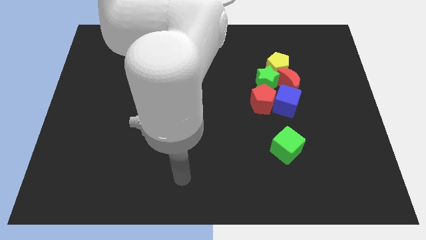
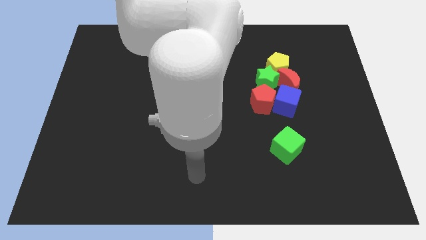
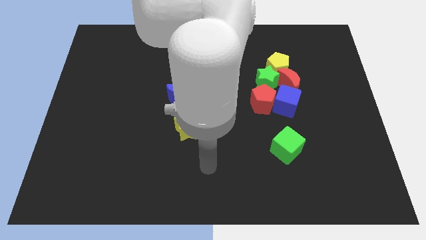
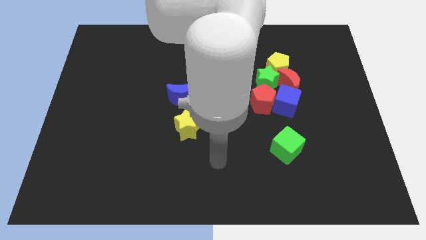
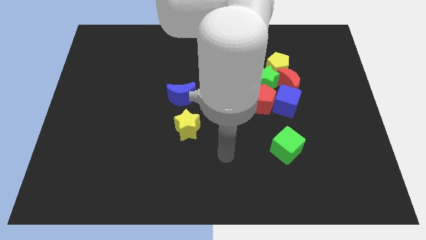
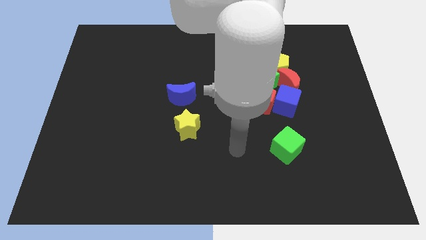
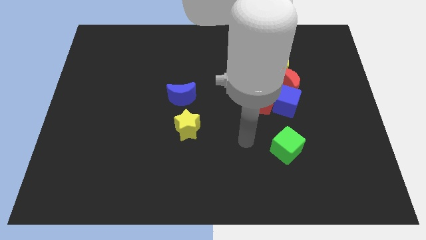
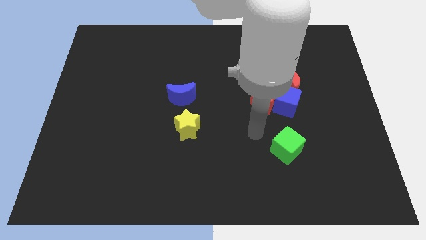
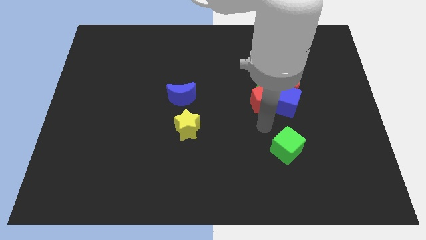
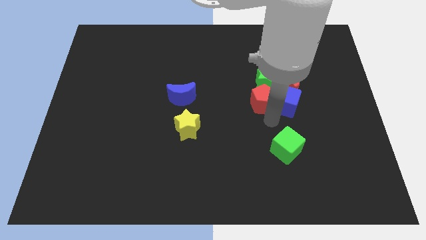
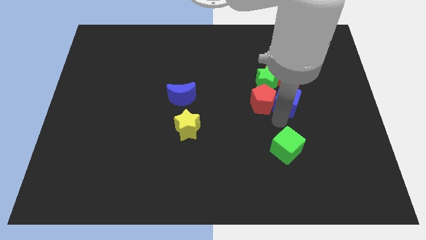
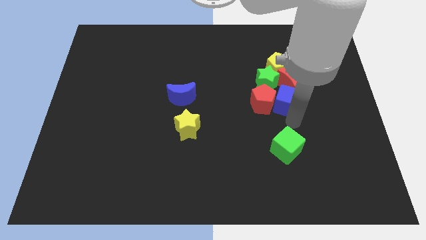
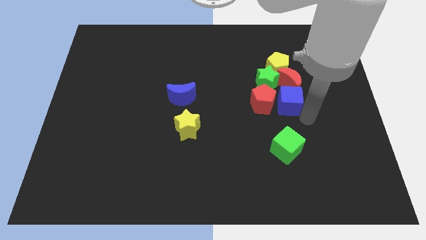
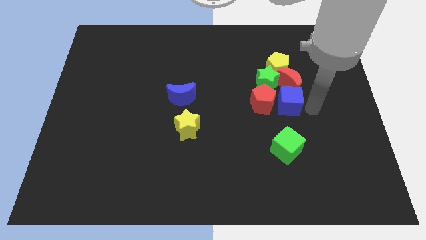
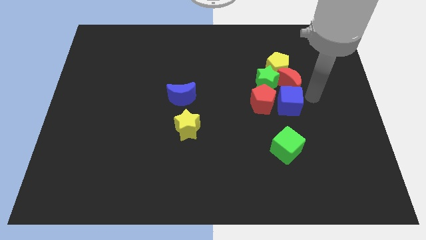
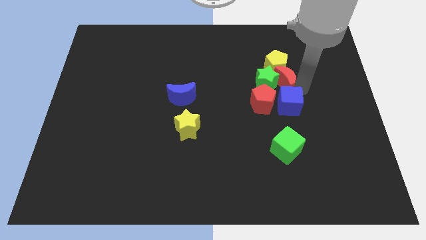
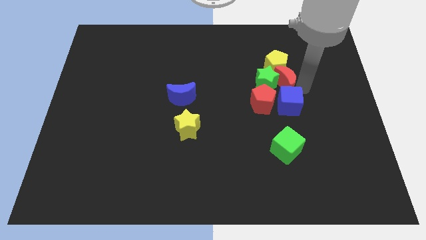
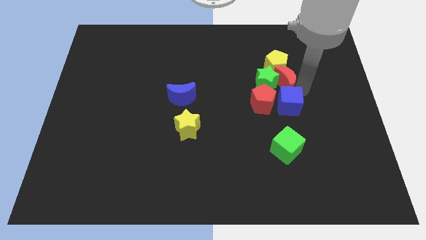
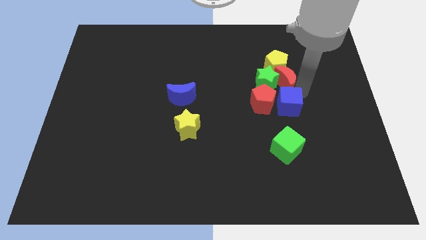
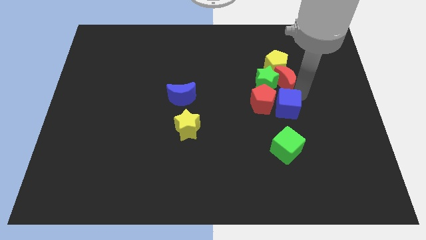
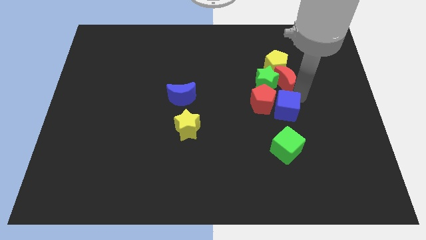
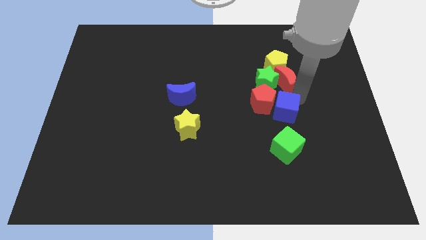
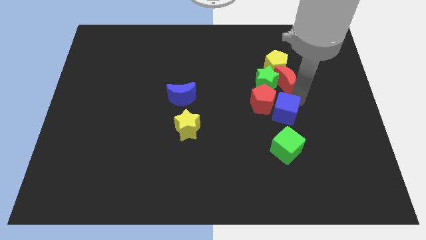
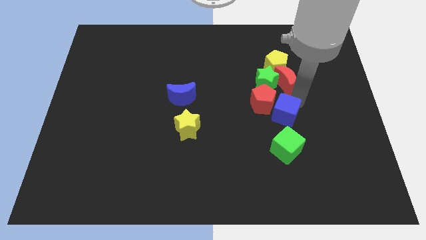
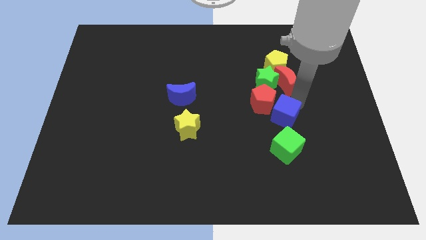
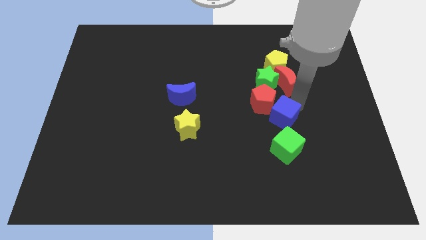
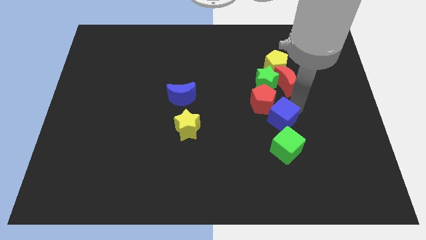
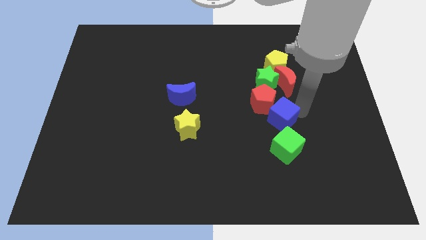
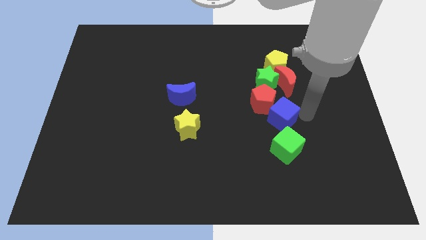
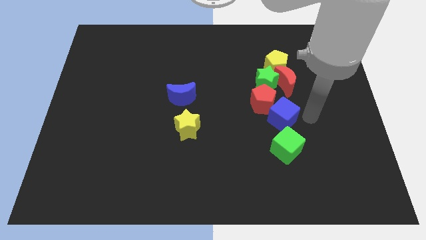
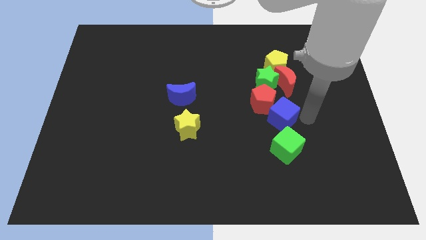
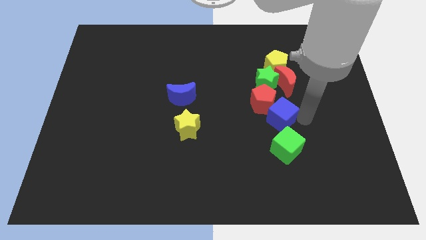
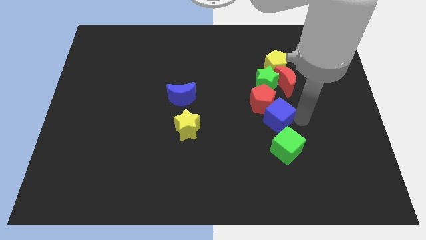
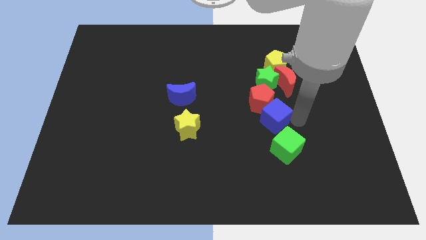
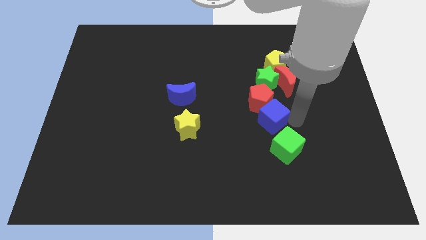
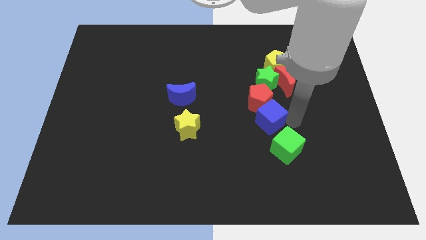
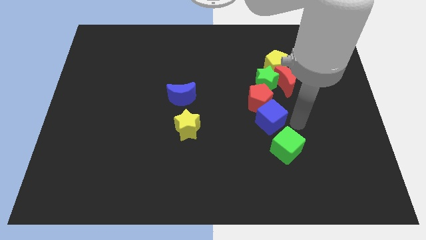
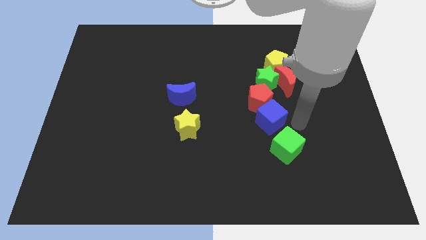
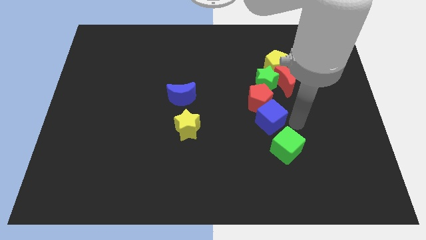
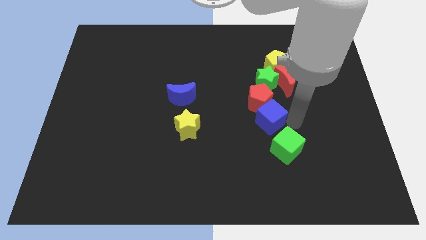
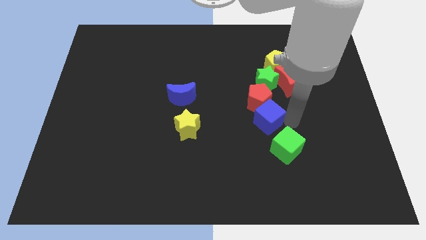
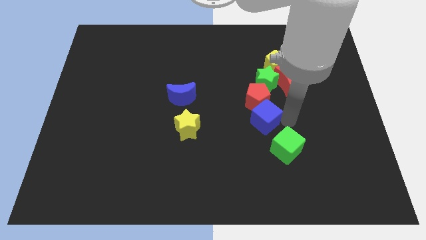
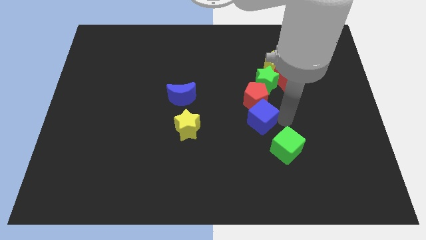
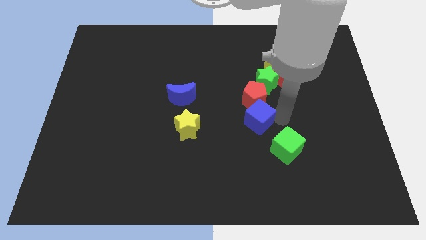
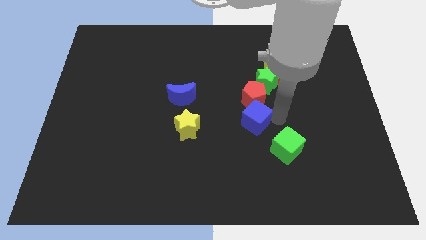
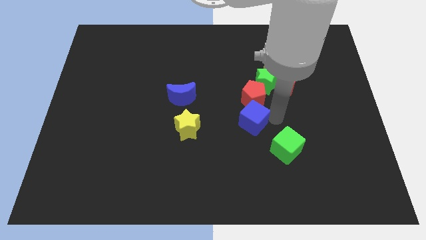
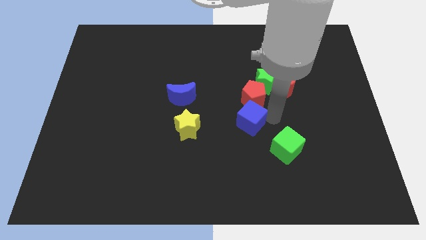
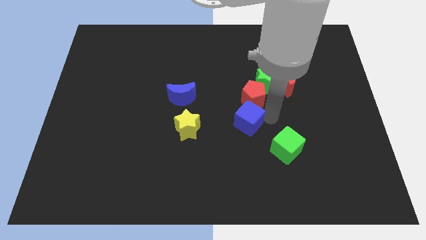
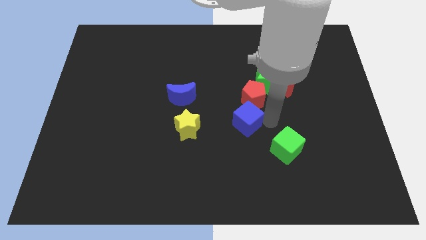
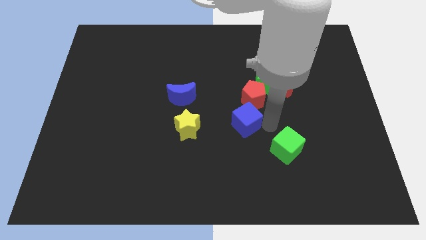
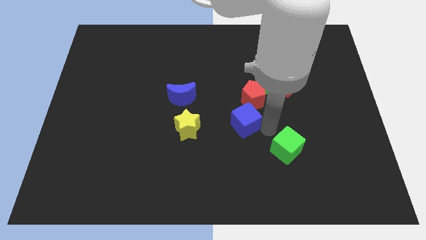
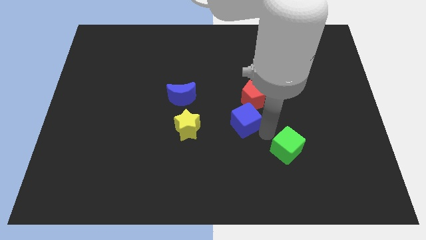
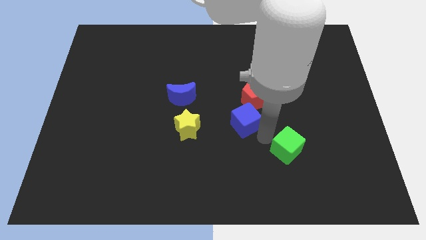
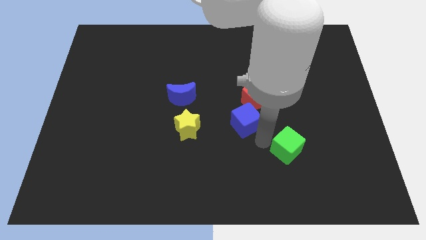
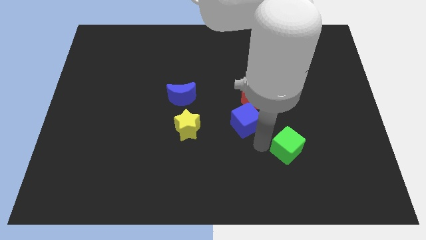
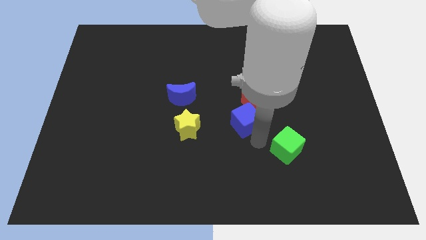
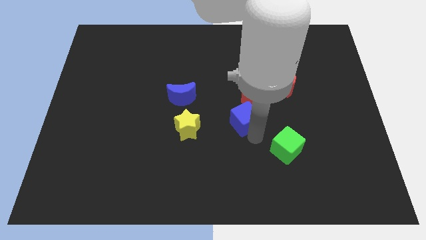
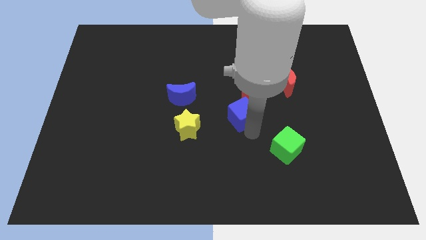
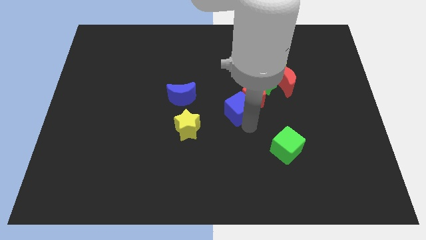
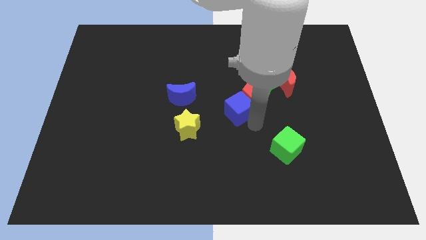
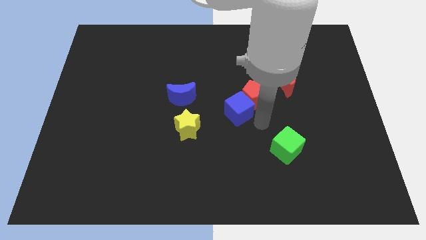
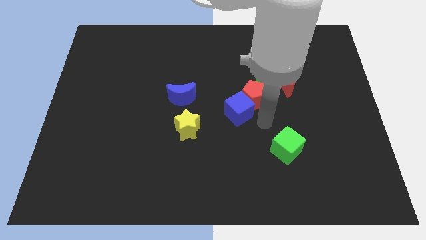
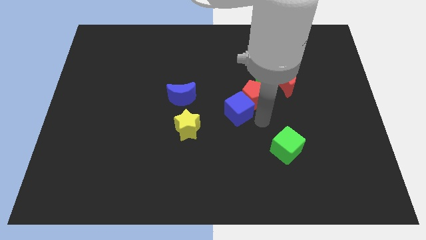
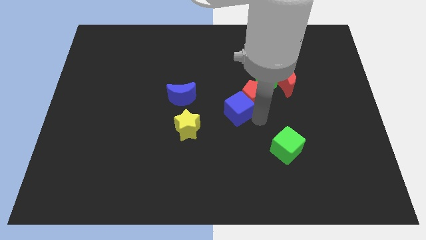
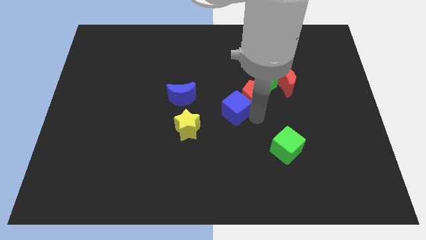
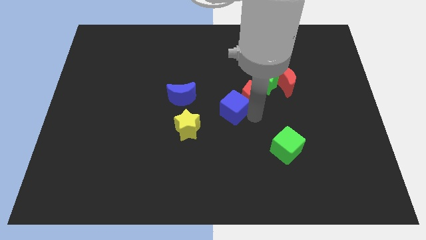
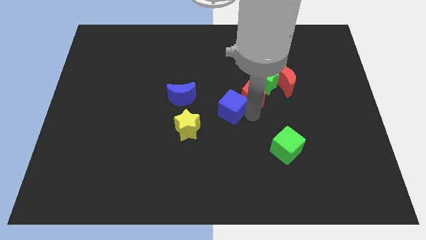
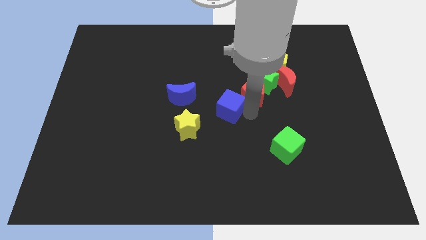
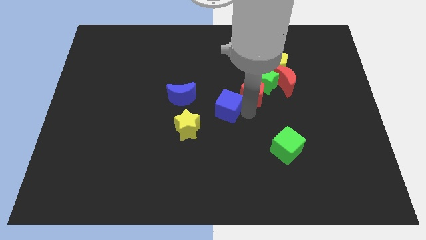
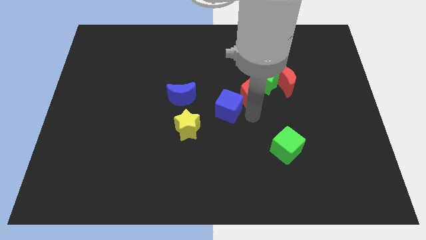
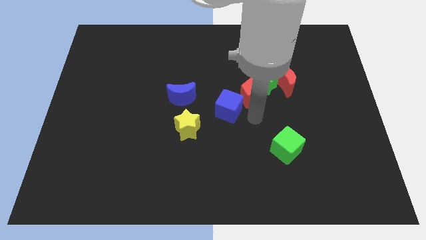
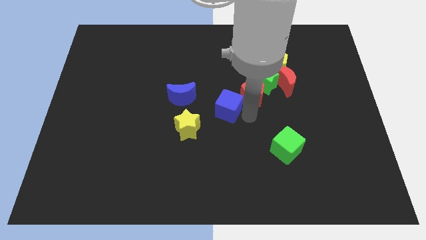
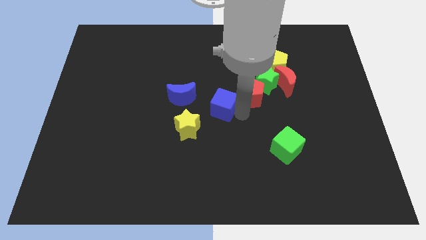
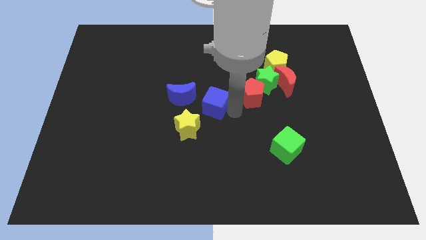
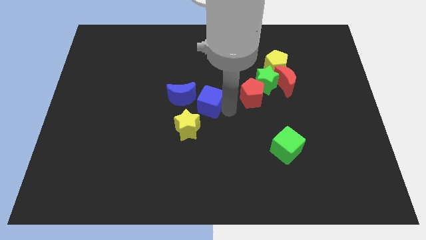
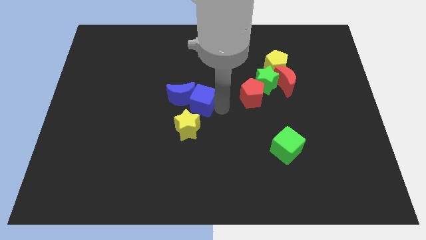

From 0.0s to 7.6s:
push the blue cube next to the blue moon
